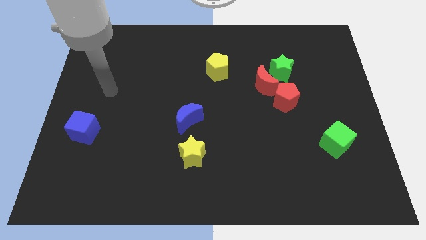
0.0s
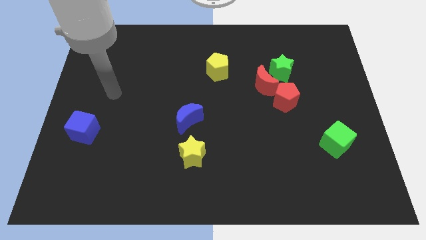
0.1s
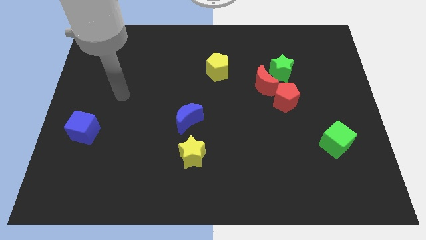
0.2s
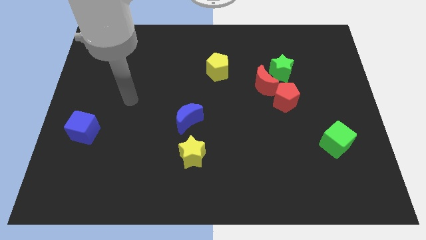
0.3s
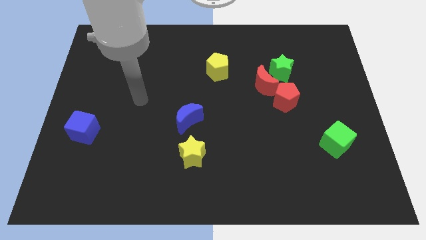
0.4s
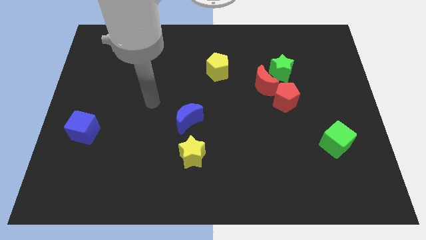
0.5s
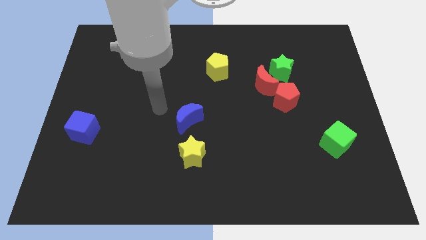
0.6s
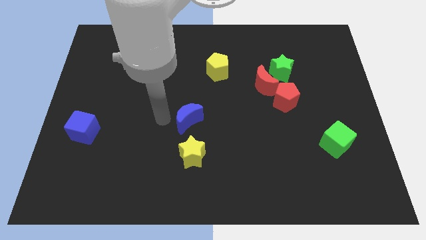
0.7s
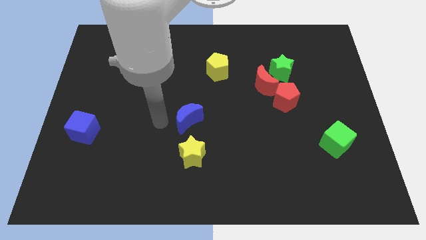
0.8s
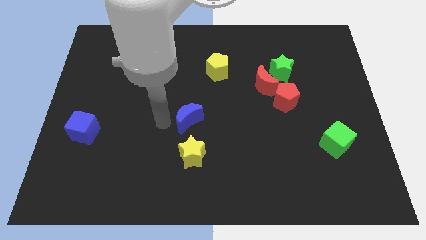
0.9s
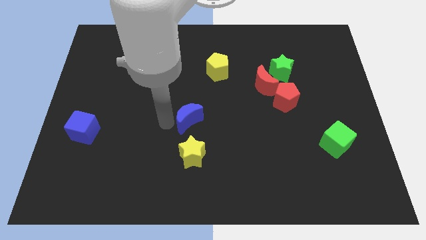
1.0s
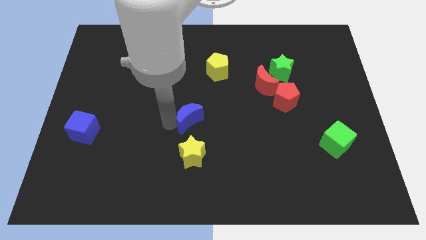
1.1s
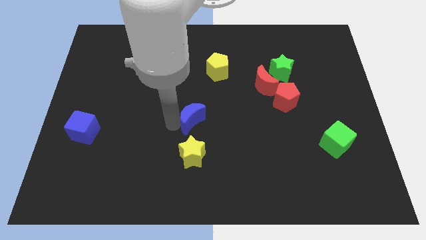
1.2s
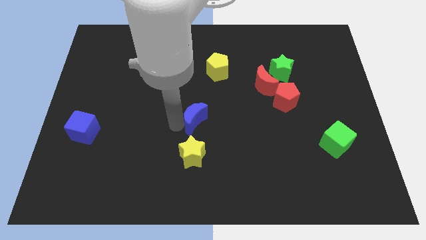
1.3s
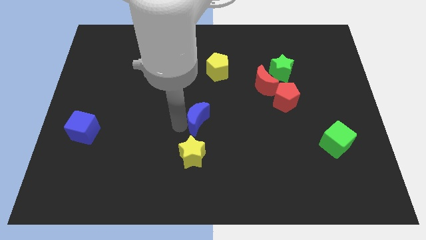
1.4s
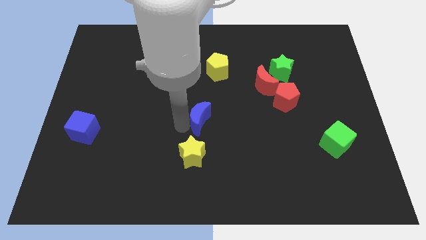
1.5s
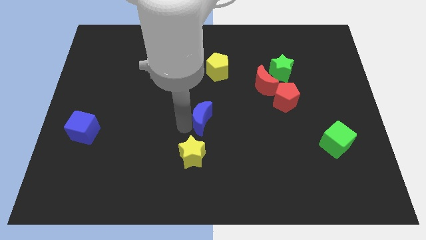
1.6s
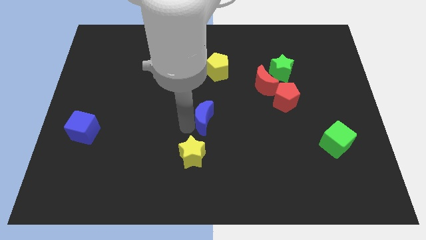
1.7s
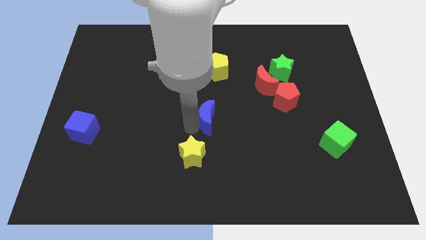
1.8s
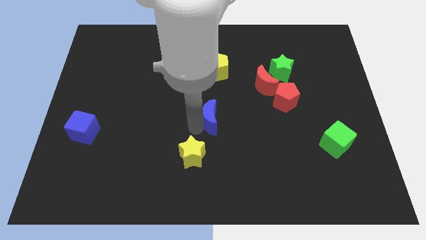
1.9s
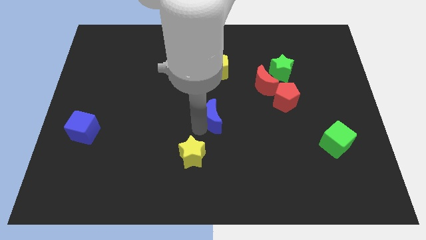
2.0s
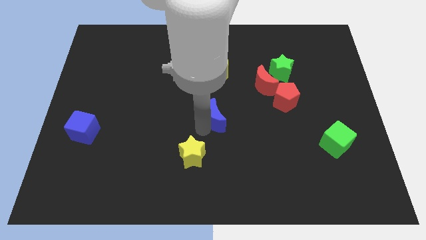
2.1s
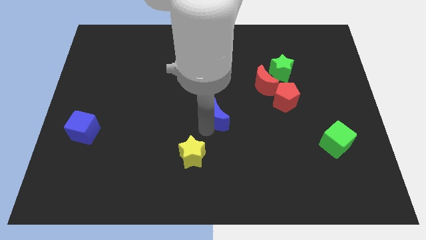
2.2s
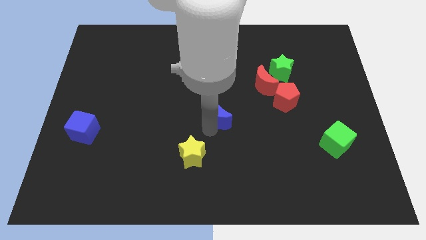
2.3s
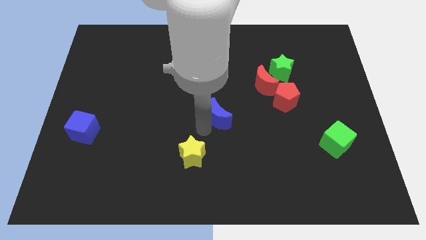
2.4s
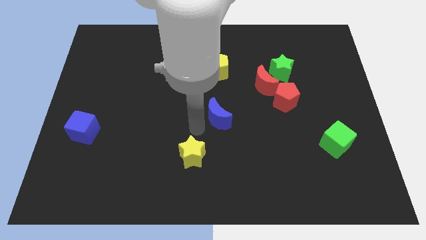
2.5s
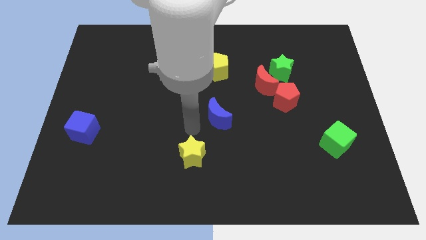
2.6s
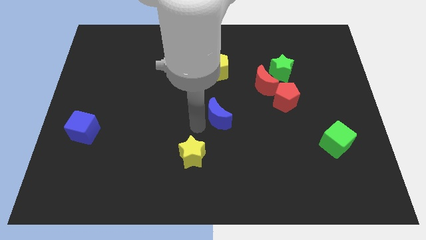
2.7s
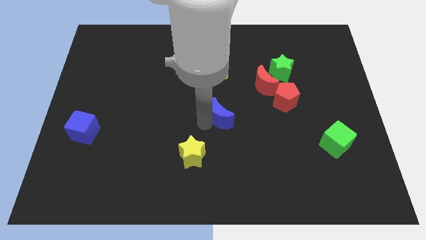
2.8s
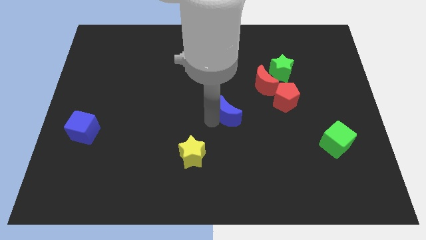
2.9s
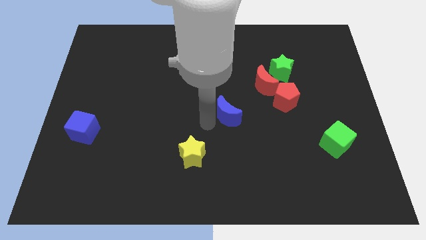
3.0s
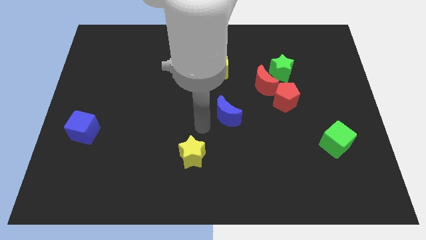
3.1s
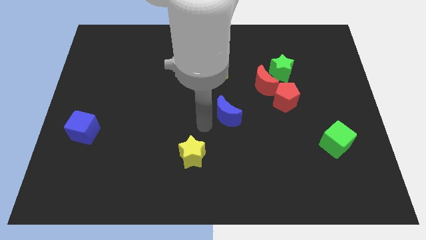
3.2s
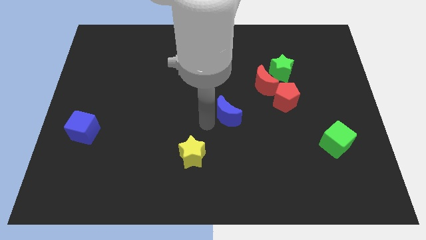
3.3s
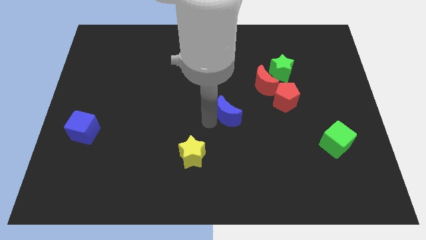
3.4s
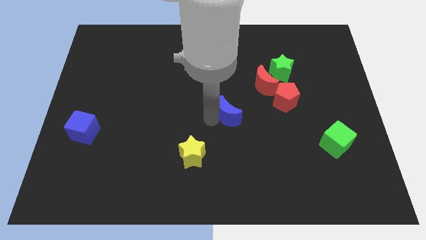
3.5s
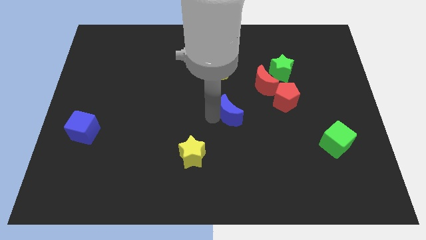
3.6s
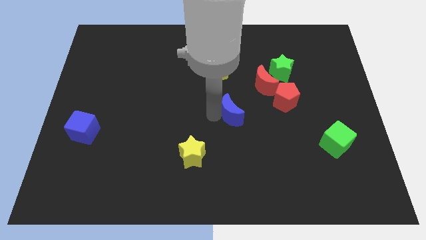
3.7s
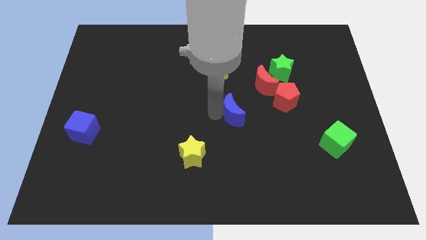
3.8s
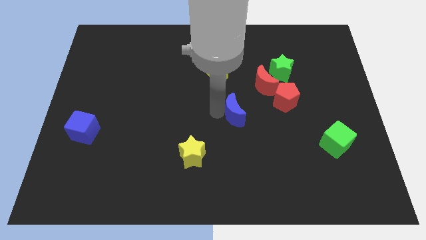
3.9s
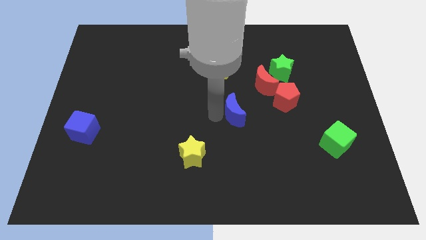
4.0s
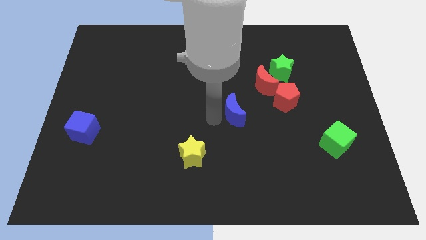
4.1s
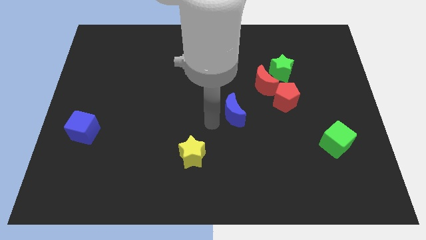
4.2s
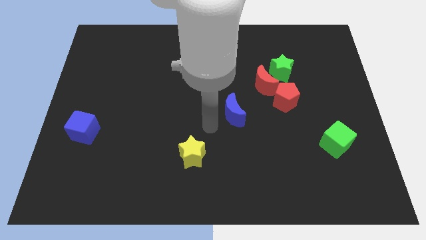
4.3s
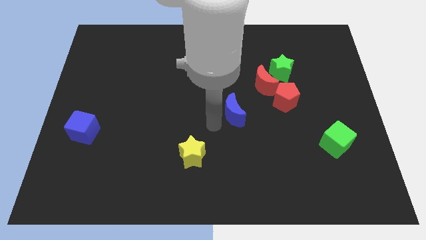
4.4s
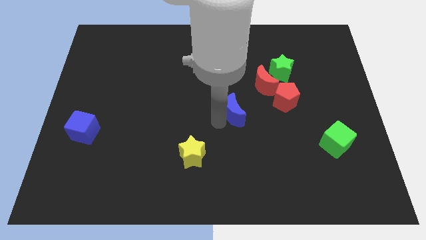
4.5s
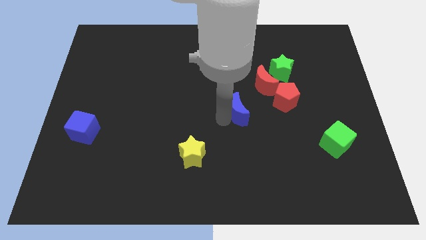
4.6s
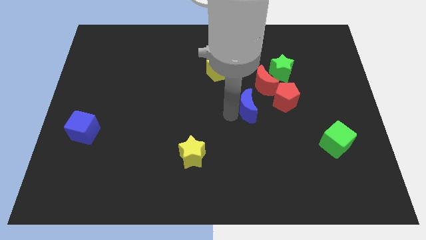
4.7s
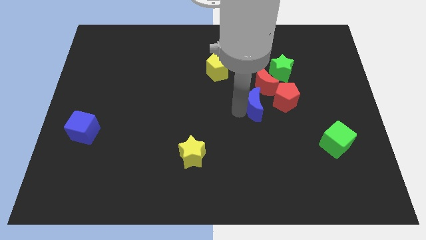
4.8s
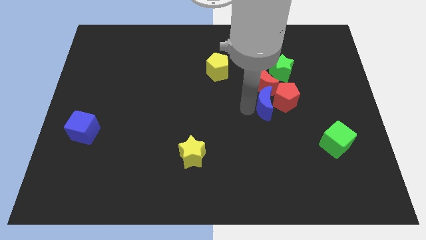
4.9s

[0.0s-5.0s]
push the blue moon to the red pentagon

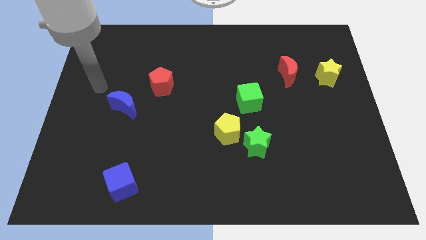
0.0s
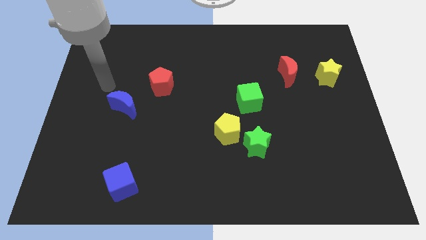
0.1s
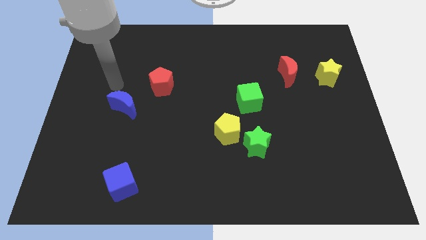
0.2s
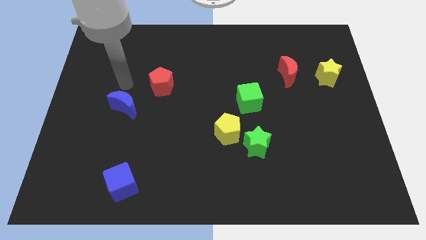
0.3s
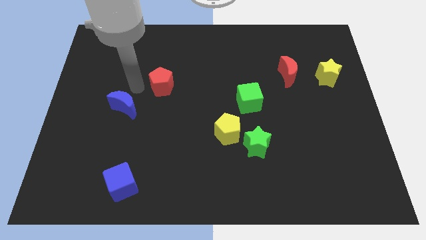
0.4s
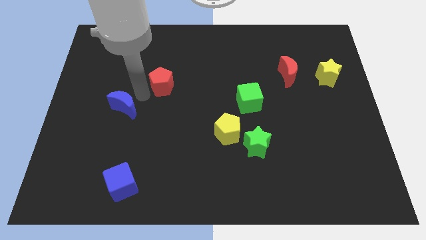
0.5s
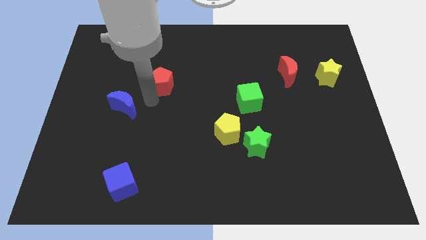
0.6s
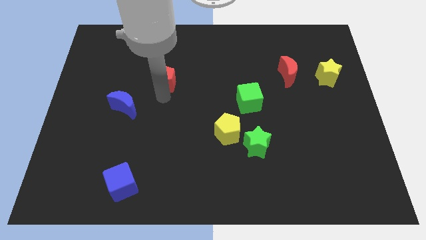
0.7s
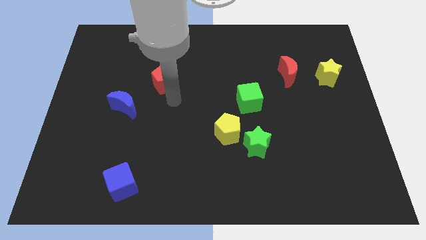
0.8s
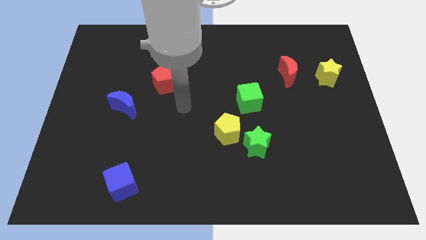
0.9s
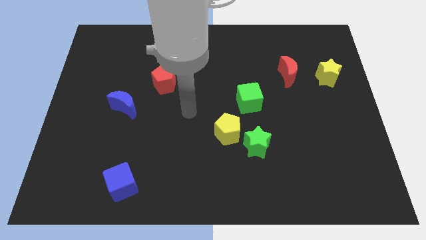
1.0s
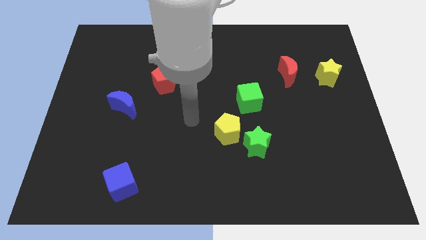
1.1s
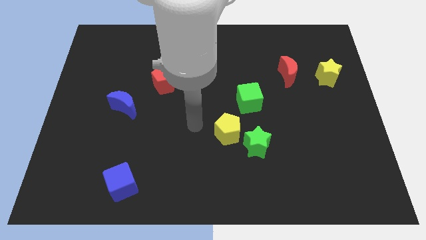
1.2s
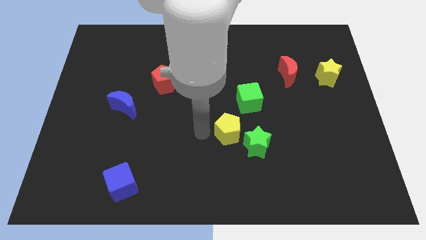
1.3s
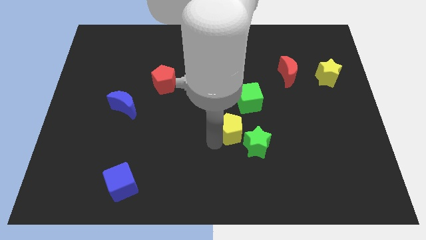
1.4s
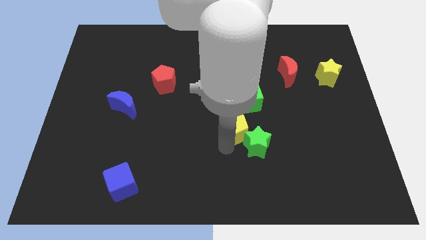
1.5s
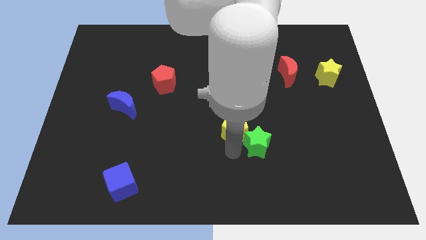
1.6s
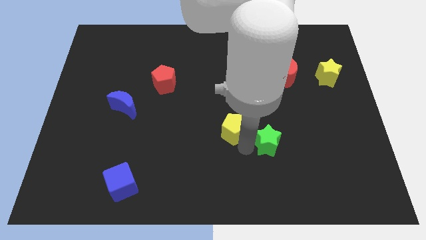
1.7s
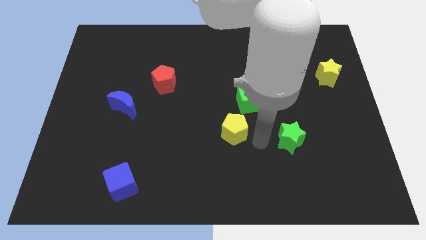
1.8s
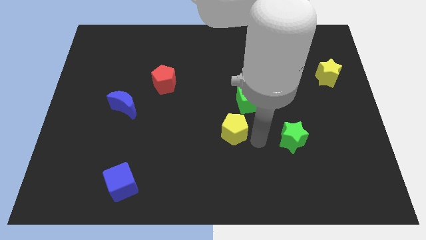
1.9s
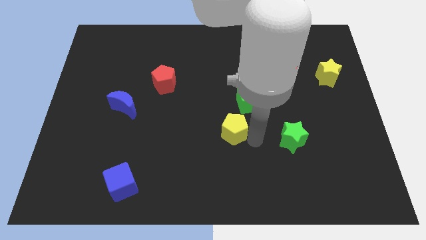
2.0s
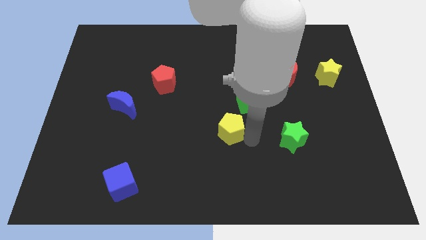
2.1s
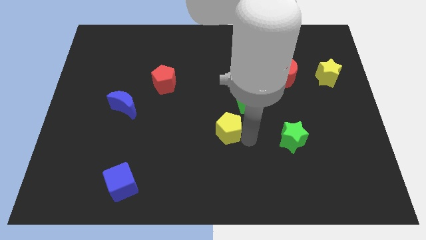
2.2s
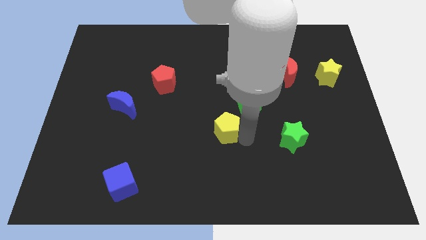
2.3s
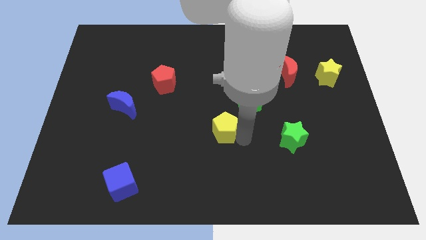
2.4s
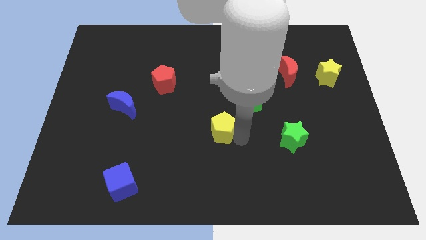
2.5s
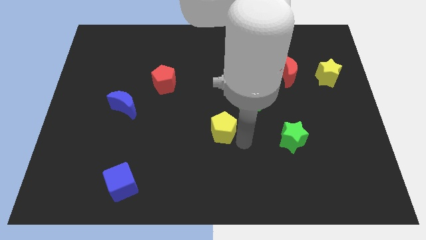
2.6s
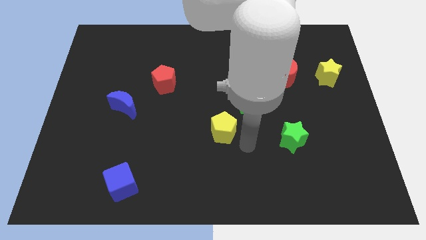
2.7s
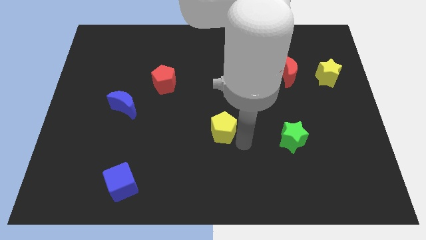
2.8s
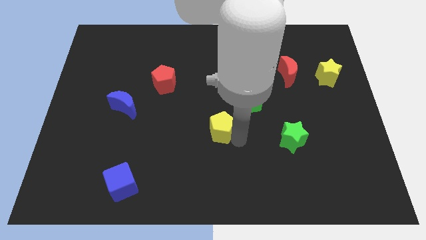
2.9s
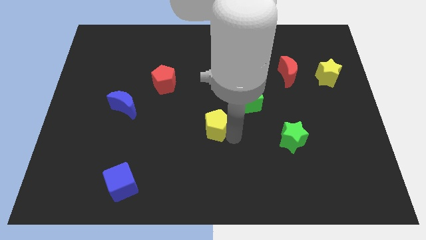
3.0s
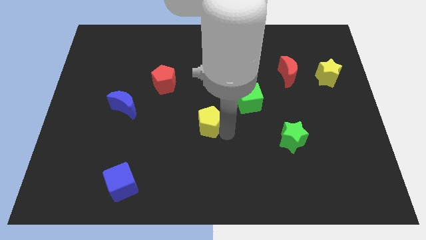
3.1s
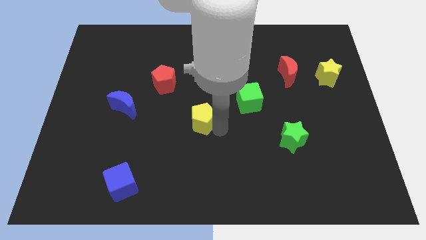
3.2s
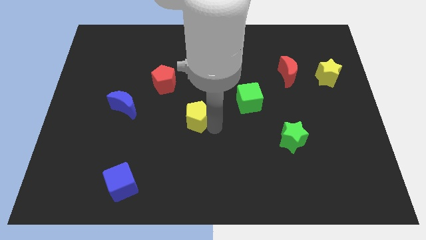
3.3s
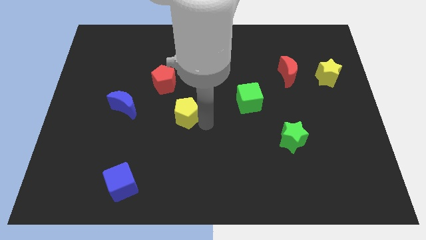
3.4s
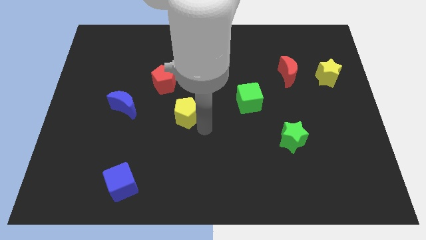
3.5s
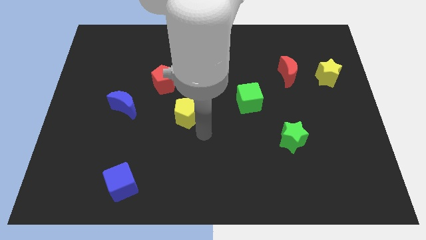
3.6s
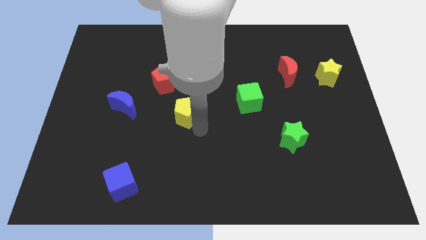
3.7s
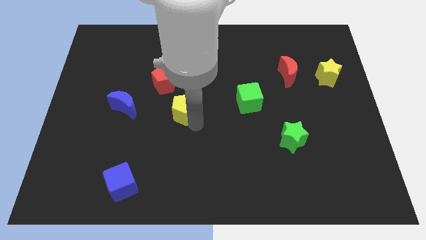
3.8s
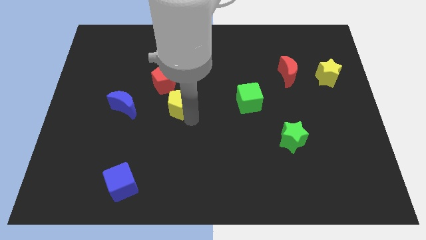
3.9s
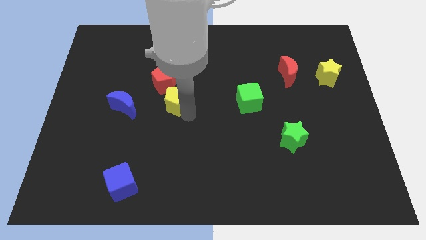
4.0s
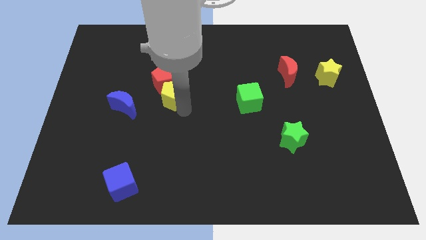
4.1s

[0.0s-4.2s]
move the yellow pentagon to the red pentagon
